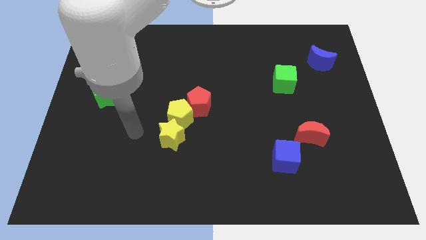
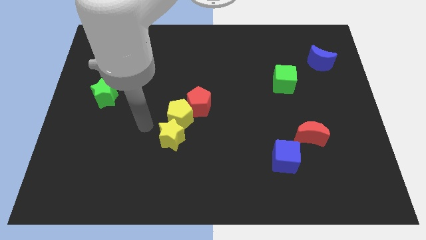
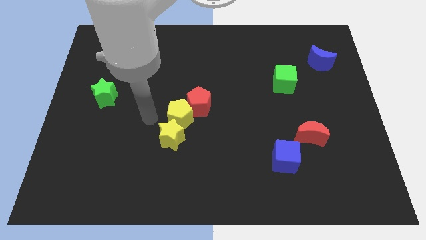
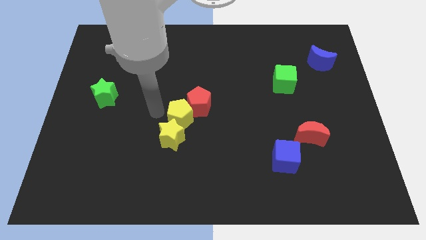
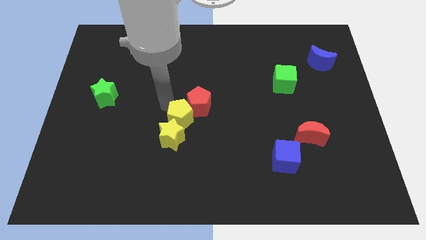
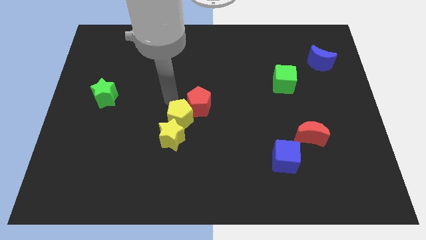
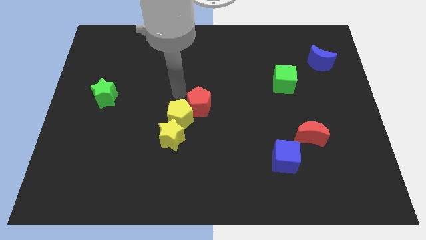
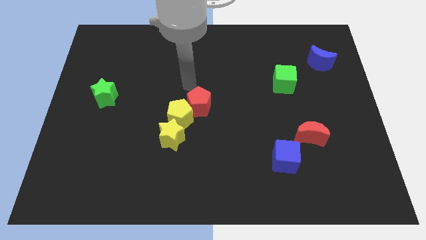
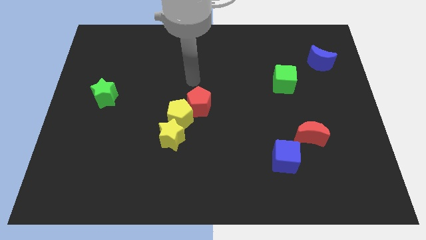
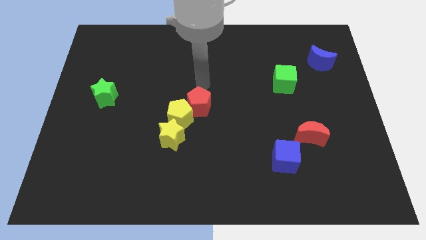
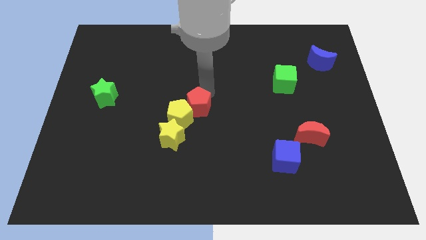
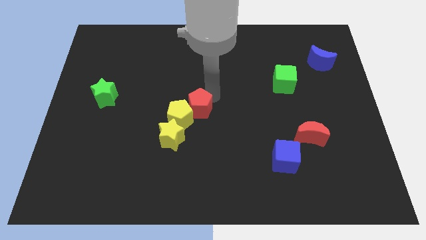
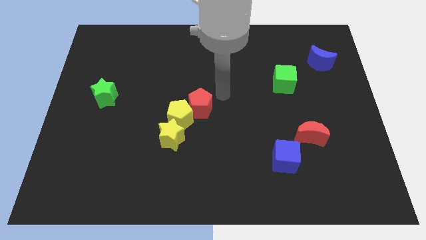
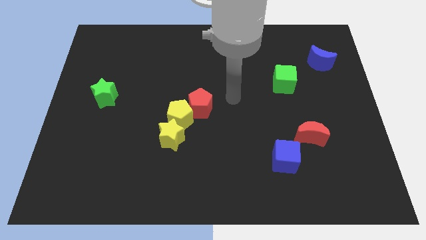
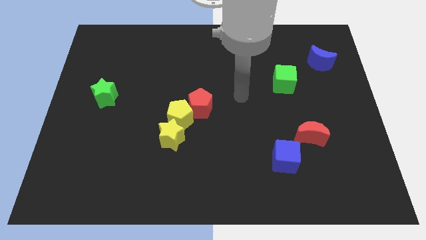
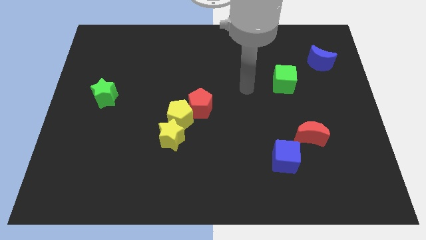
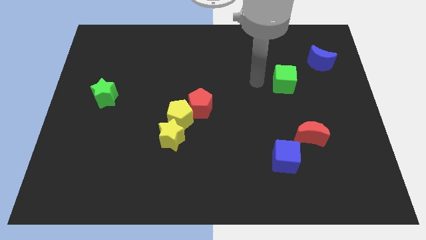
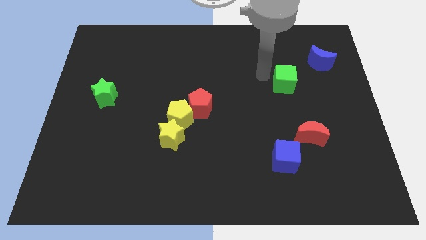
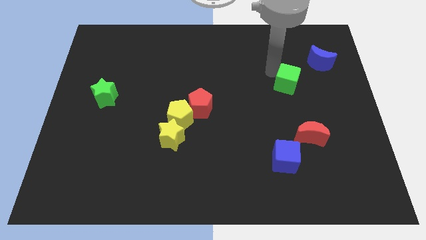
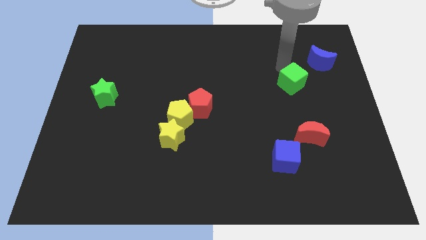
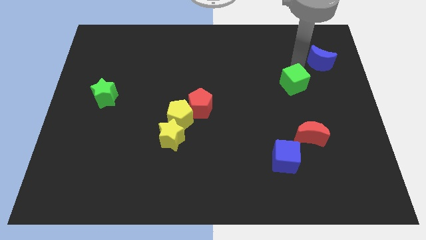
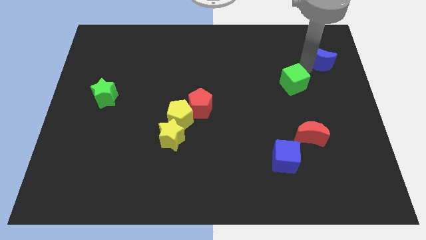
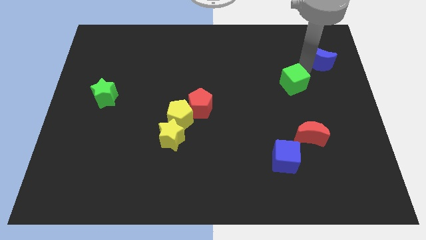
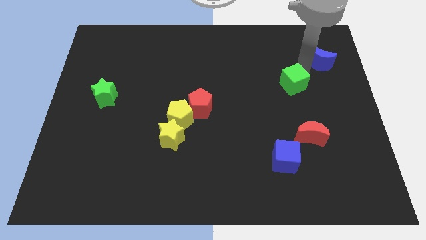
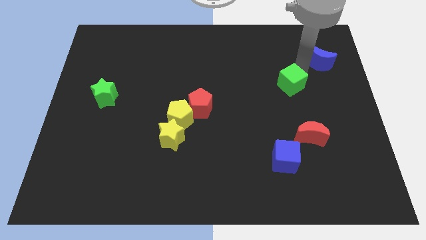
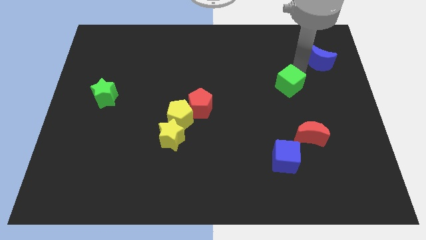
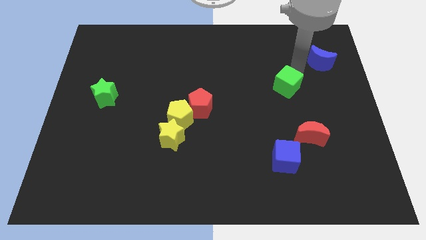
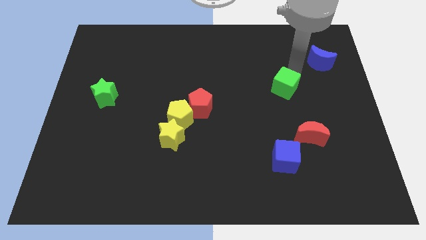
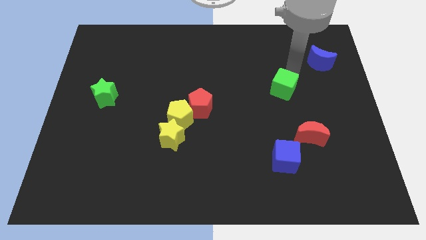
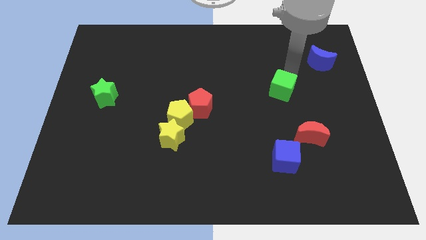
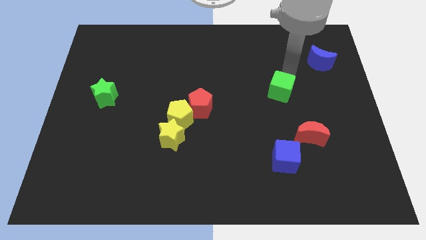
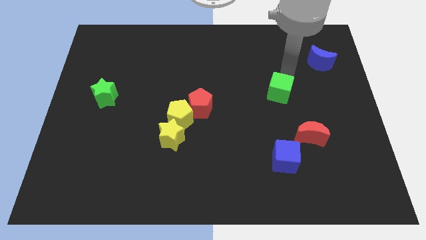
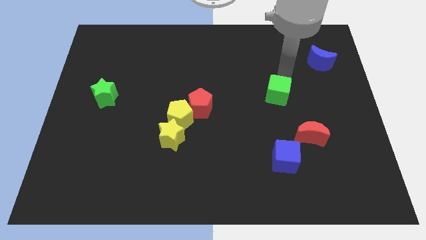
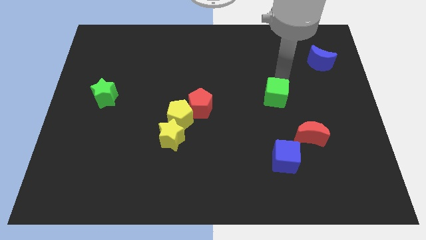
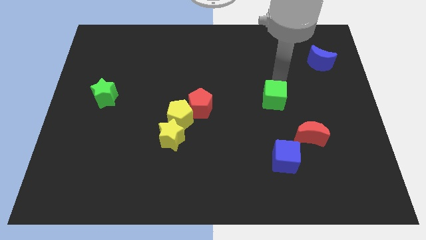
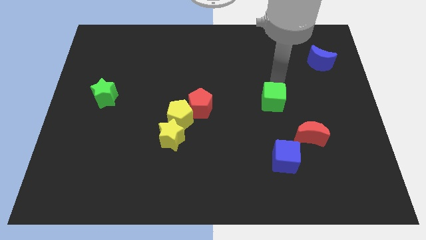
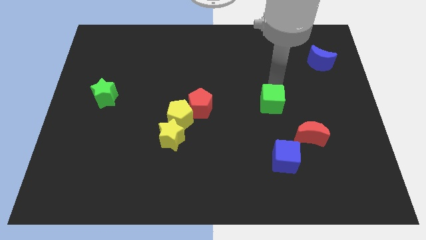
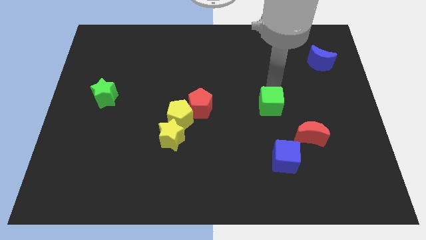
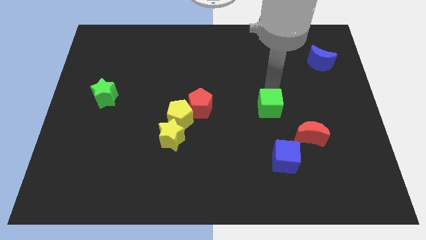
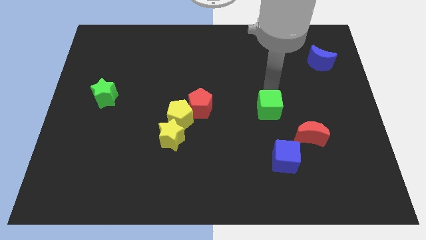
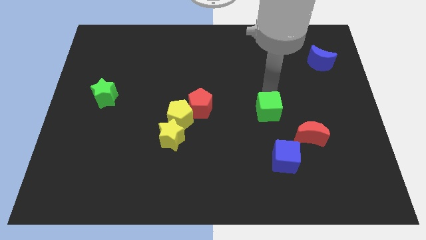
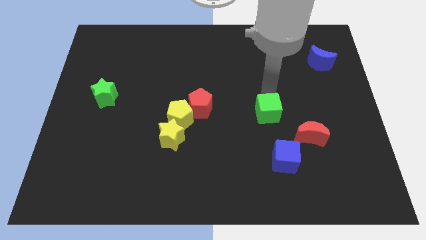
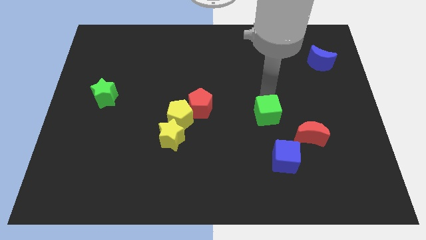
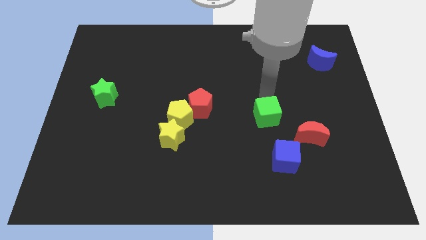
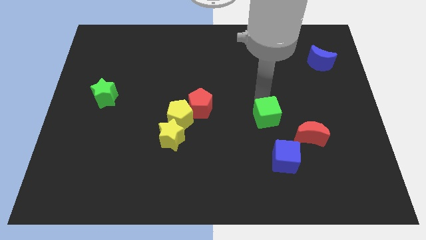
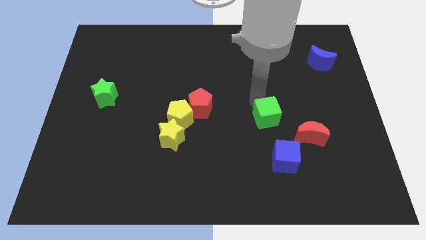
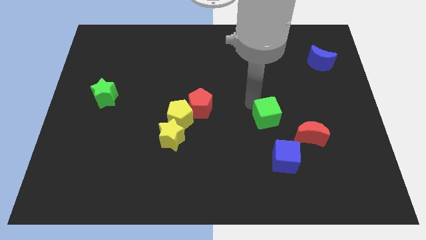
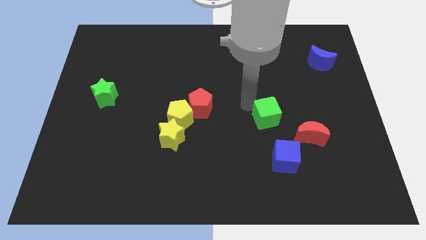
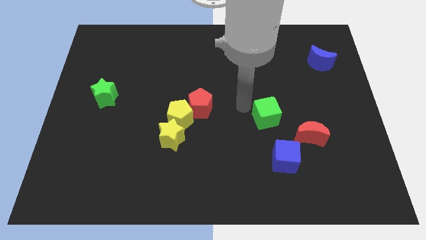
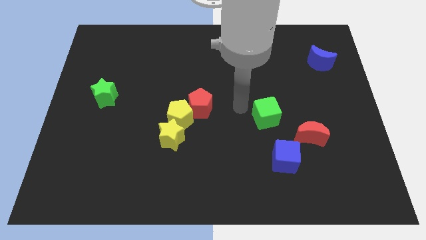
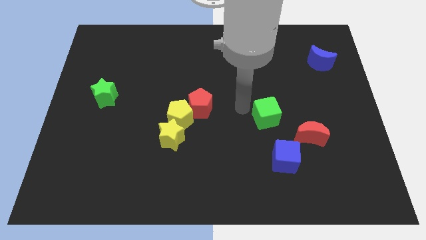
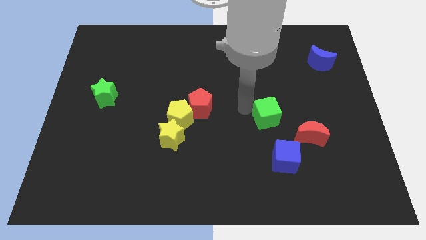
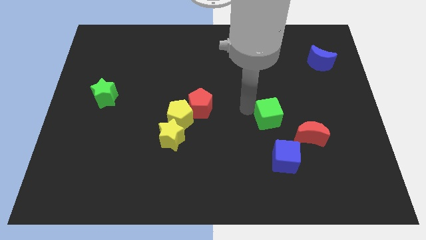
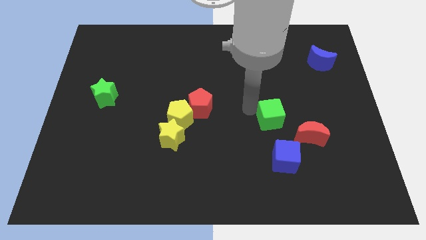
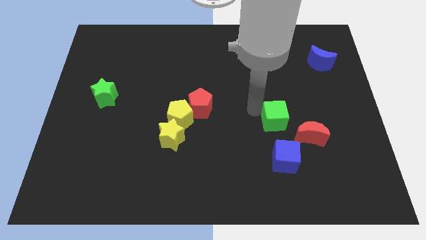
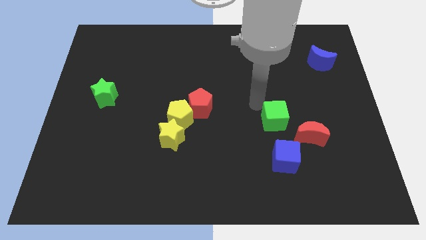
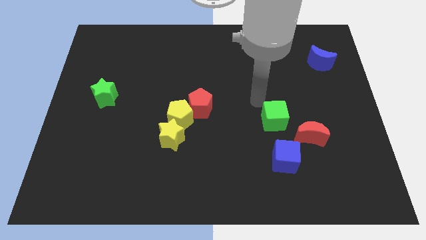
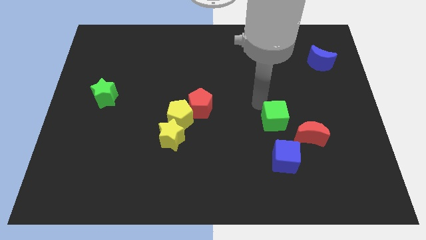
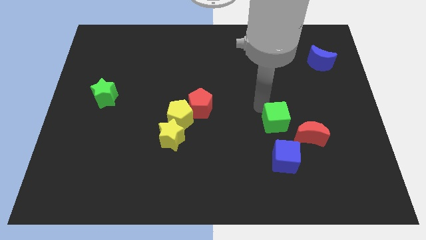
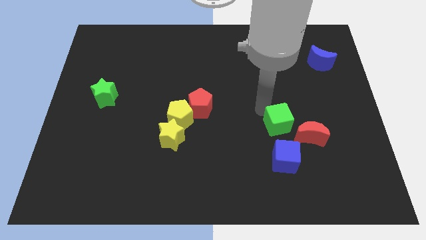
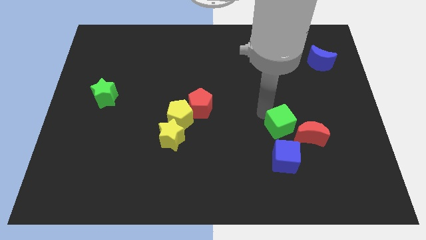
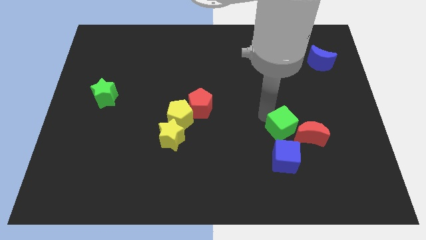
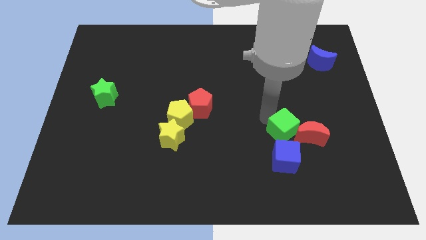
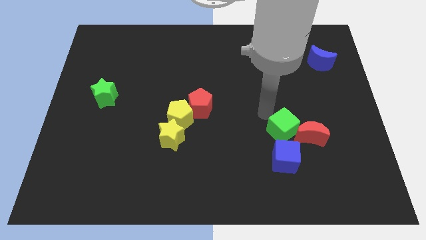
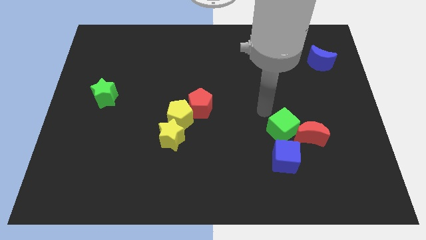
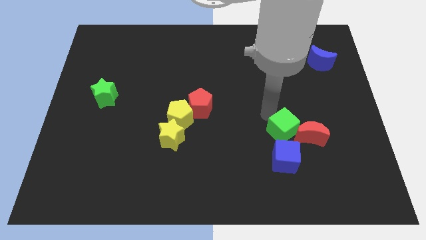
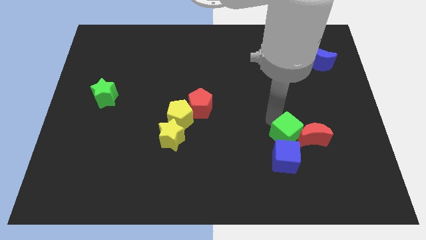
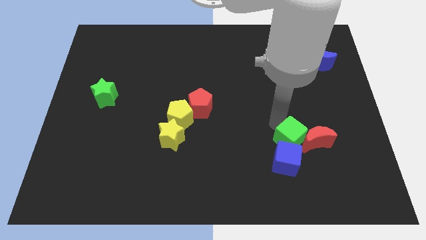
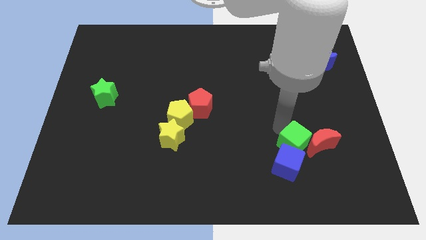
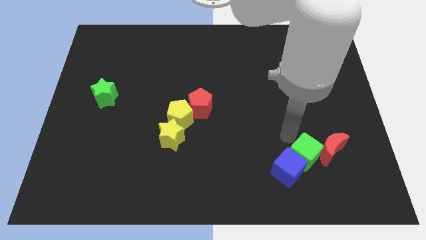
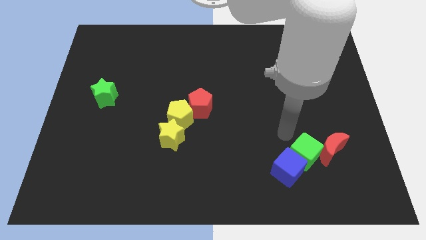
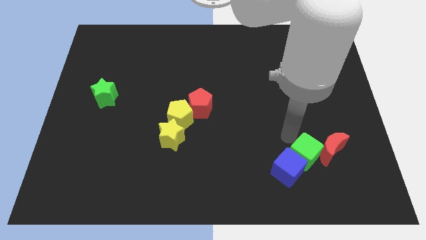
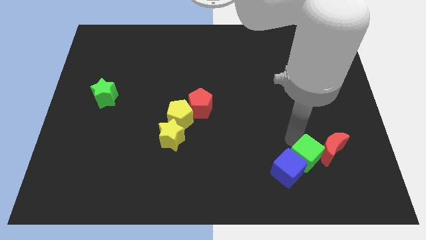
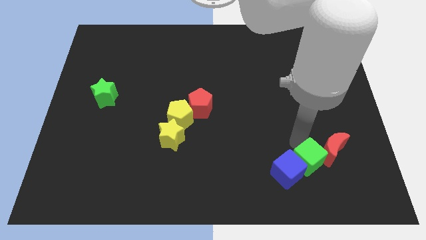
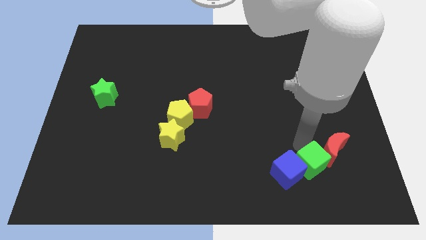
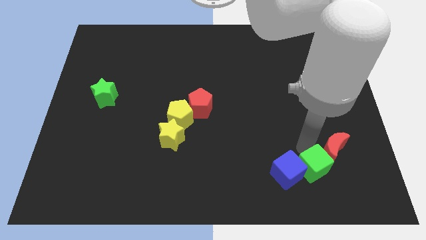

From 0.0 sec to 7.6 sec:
slide the green cube to the bottom side of the red moon

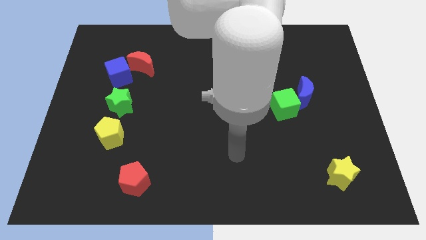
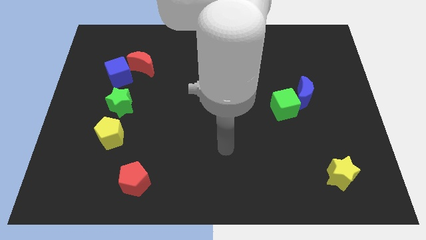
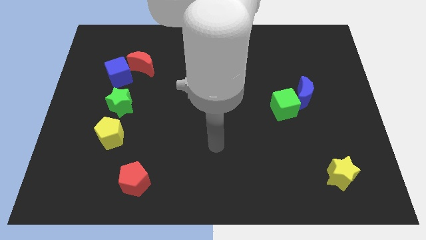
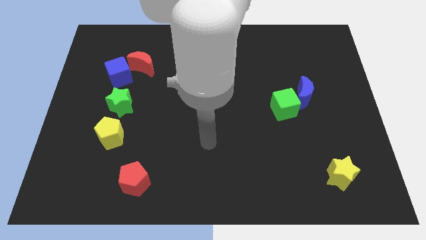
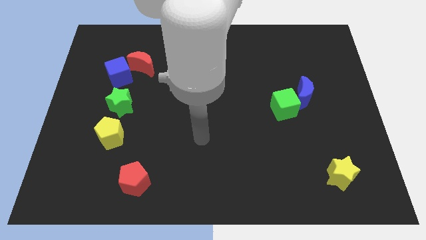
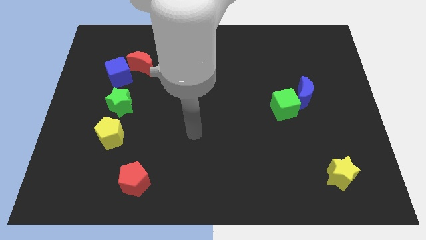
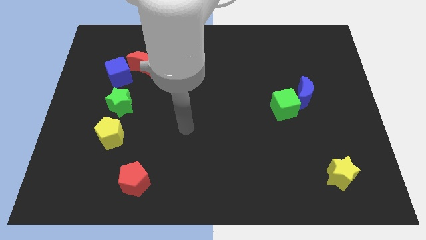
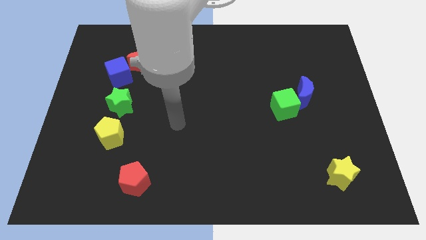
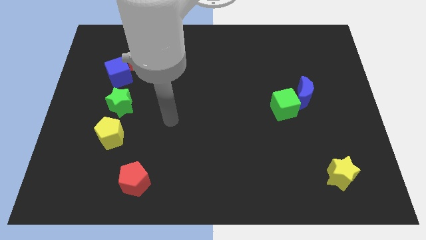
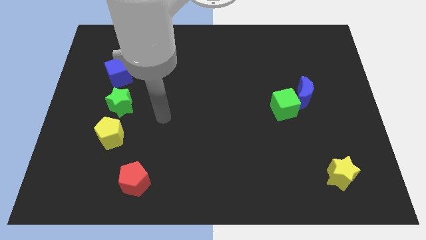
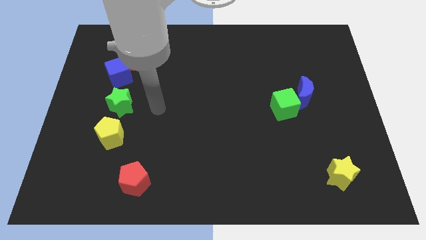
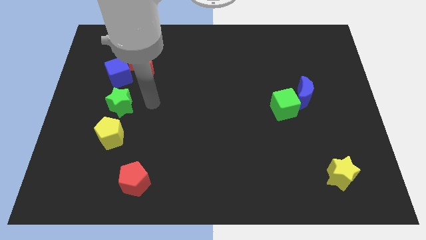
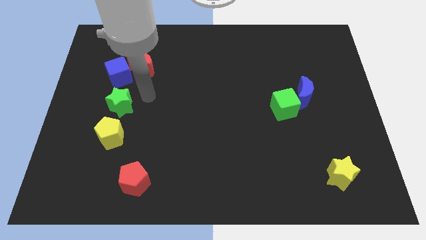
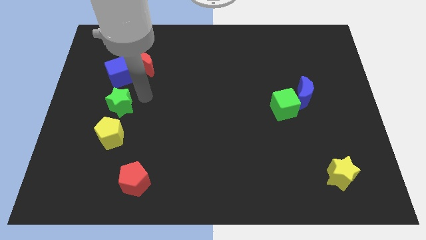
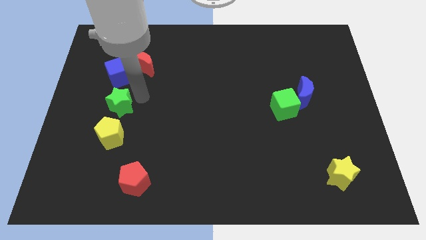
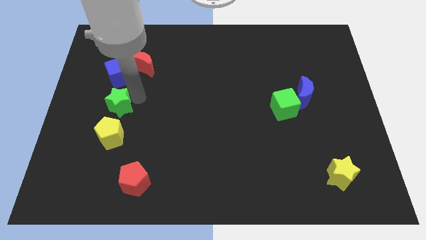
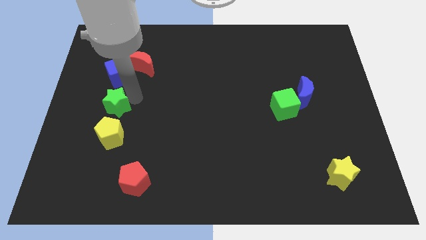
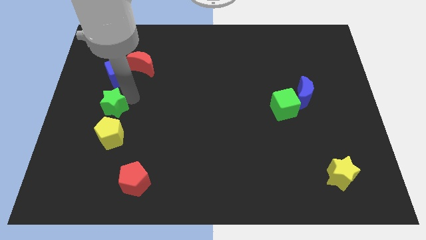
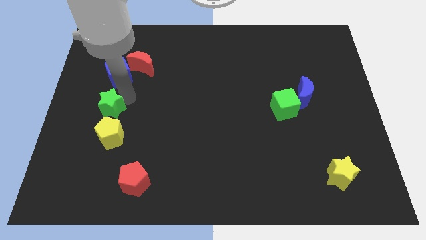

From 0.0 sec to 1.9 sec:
put the green star diagonally up and to the left of the yellow pentagon
